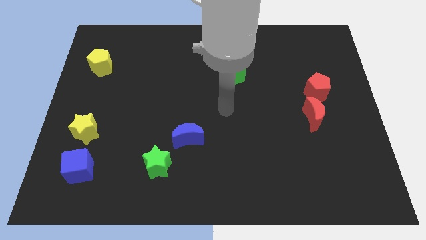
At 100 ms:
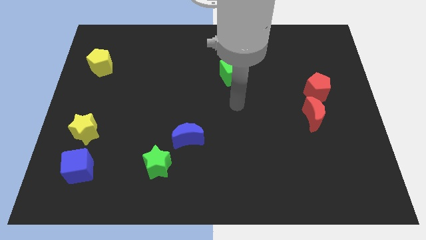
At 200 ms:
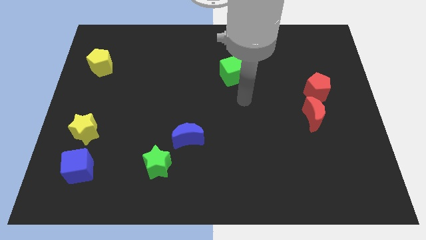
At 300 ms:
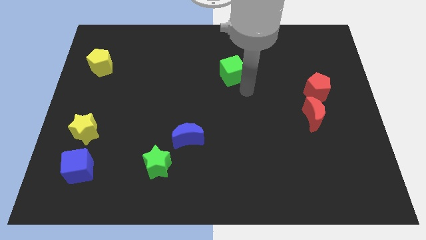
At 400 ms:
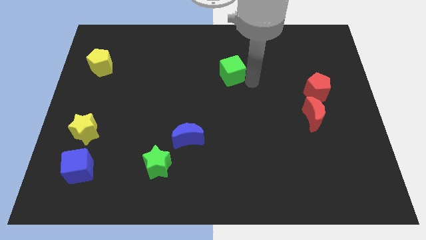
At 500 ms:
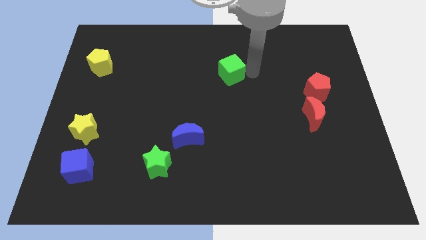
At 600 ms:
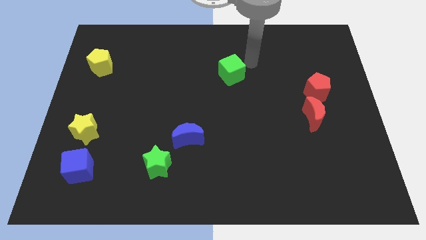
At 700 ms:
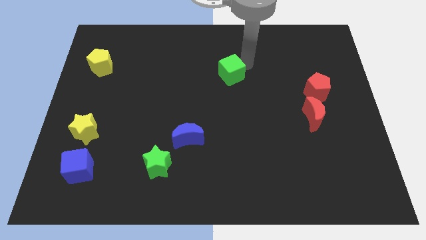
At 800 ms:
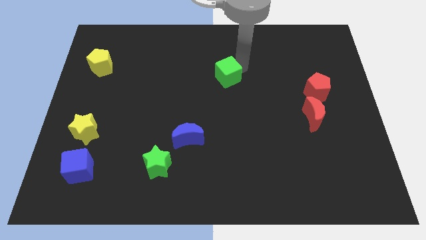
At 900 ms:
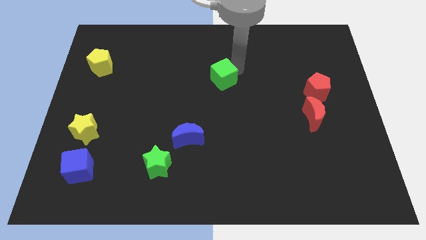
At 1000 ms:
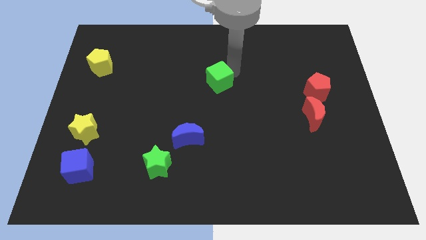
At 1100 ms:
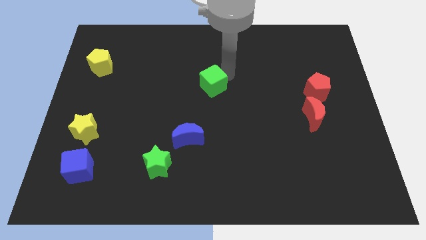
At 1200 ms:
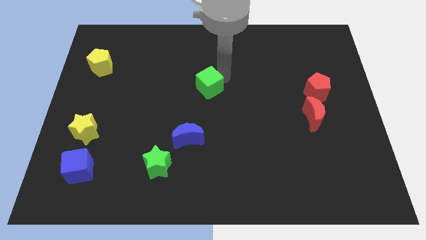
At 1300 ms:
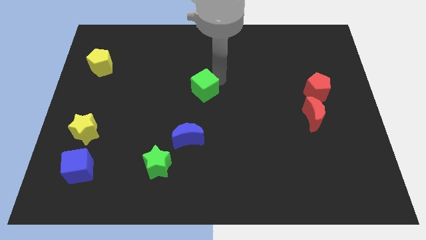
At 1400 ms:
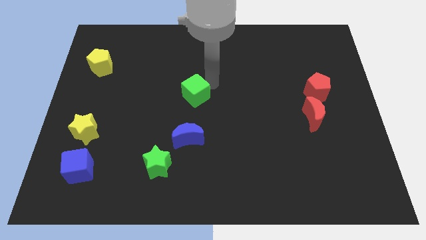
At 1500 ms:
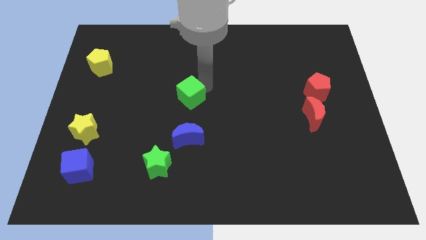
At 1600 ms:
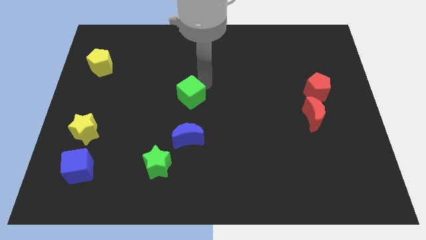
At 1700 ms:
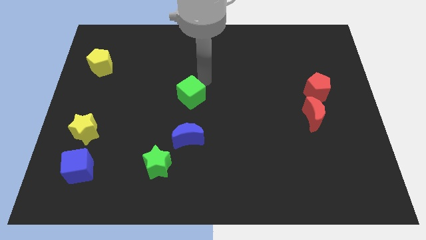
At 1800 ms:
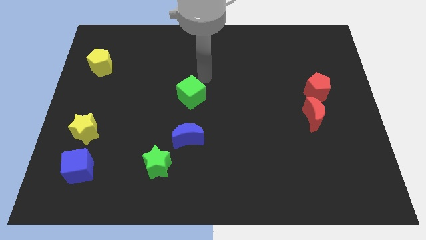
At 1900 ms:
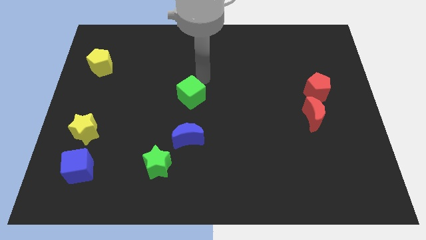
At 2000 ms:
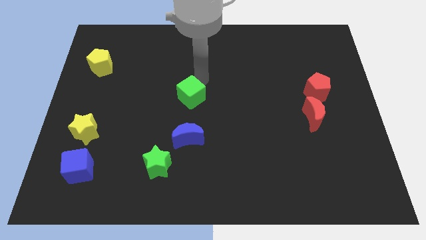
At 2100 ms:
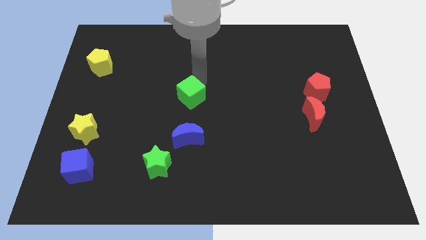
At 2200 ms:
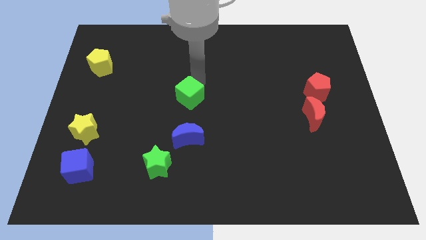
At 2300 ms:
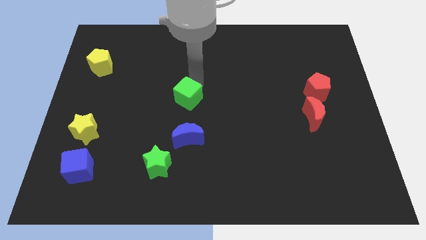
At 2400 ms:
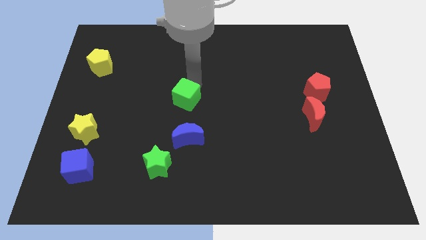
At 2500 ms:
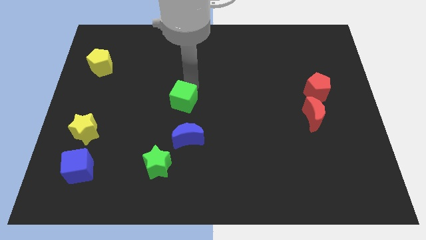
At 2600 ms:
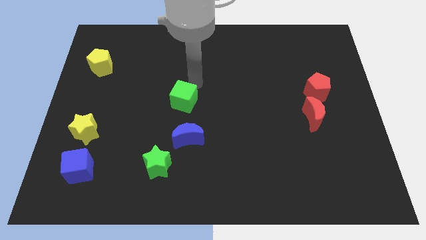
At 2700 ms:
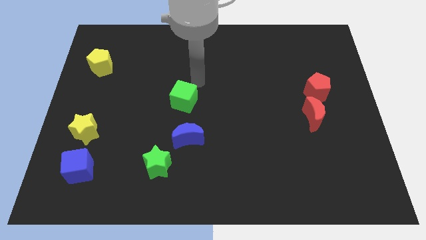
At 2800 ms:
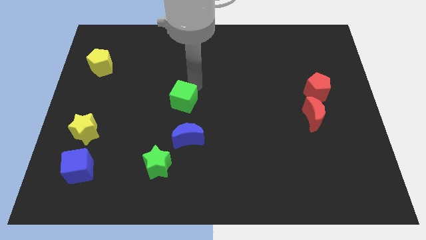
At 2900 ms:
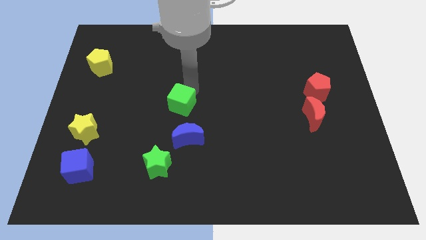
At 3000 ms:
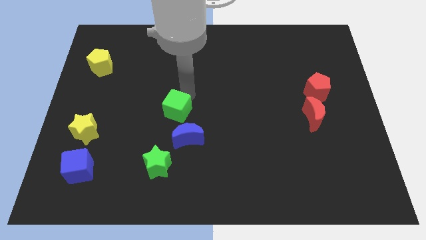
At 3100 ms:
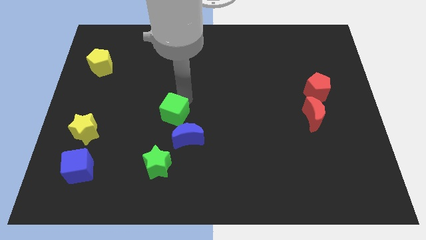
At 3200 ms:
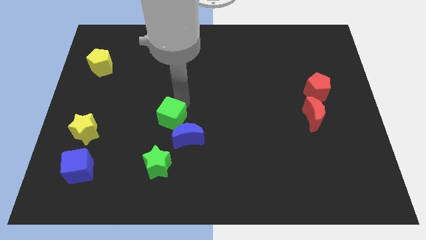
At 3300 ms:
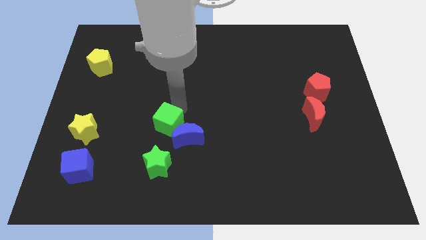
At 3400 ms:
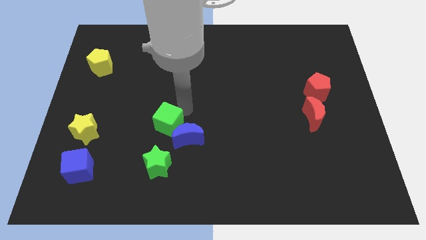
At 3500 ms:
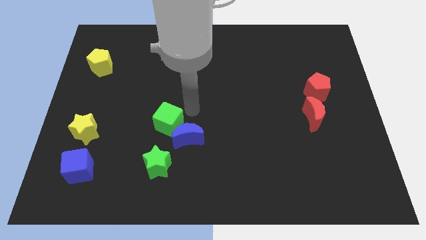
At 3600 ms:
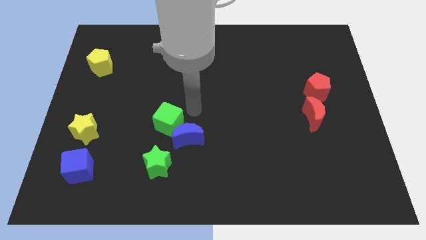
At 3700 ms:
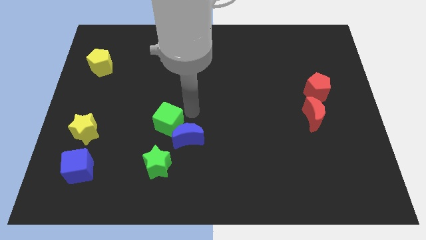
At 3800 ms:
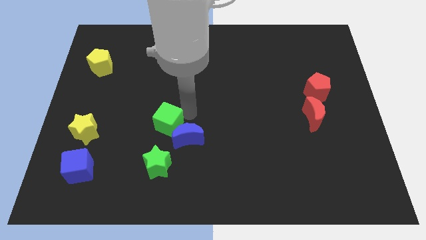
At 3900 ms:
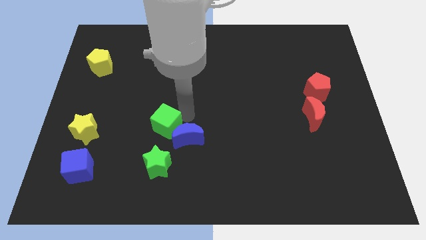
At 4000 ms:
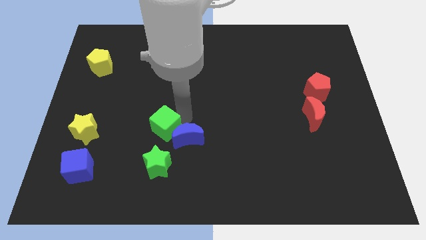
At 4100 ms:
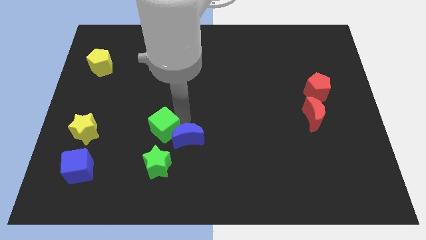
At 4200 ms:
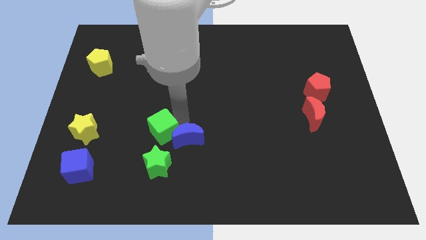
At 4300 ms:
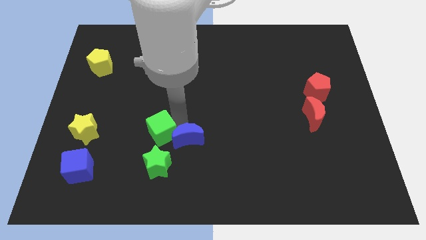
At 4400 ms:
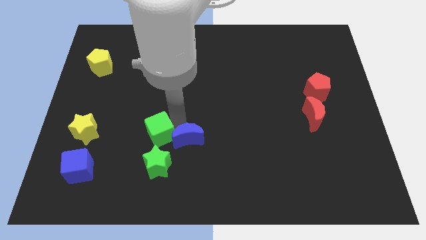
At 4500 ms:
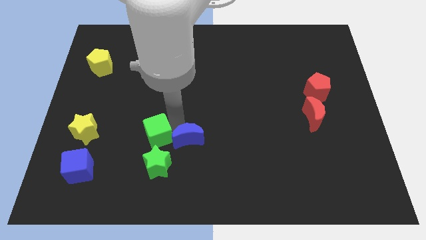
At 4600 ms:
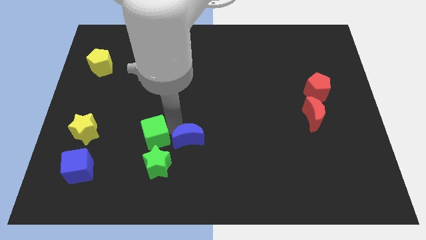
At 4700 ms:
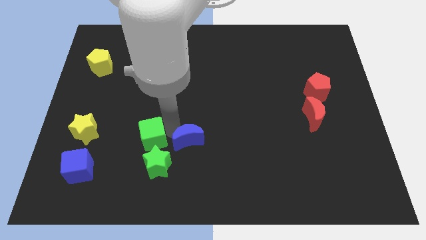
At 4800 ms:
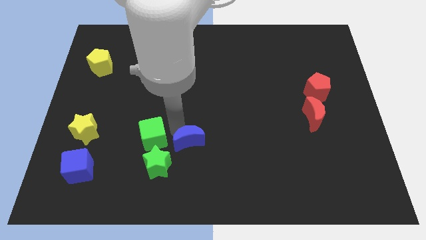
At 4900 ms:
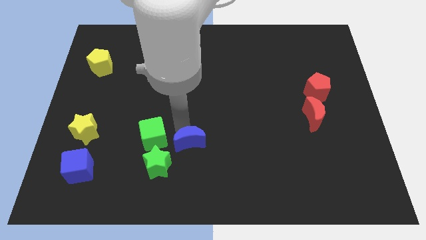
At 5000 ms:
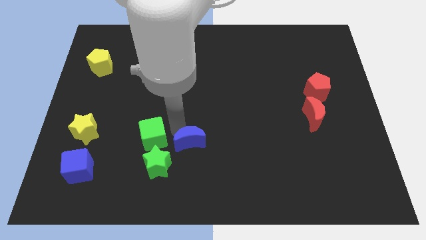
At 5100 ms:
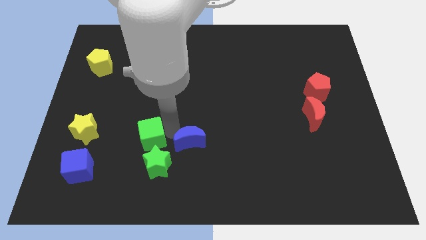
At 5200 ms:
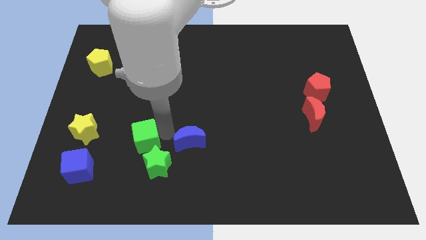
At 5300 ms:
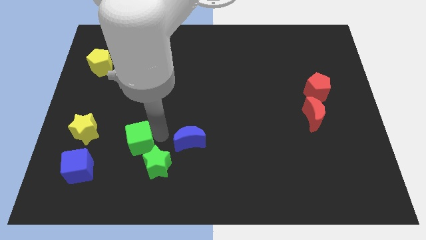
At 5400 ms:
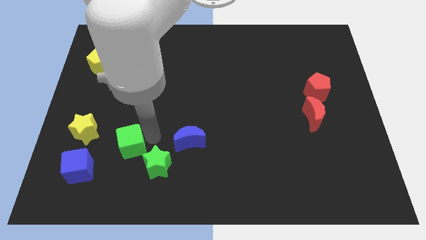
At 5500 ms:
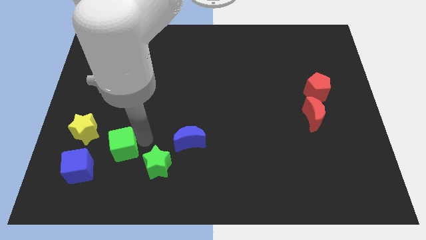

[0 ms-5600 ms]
move the green cube to the bottom right of the yellow star

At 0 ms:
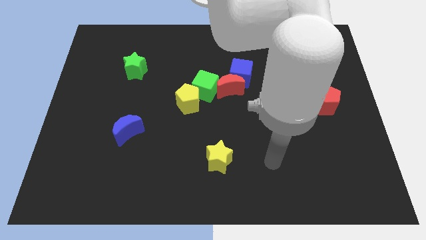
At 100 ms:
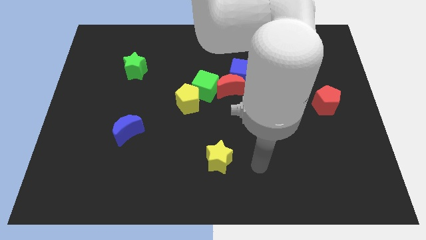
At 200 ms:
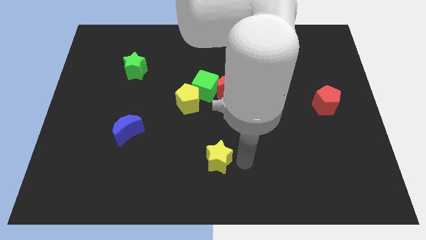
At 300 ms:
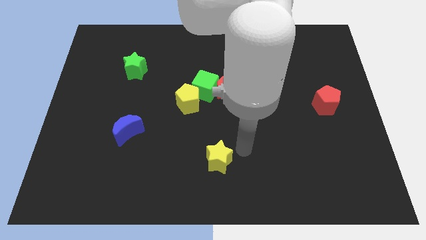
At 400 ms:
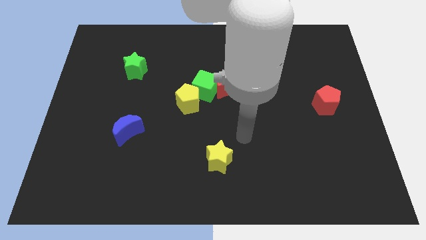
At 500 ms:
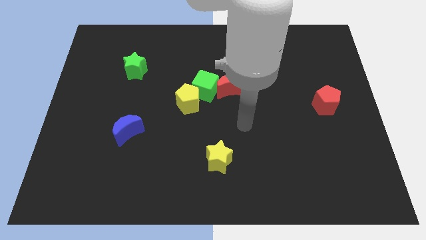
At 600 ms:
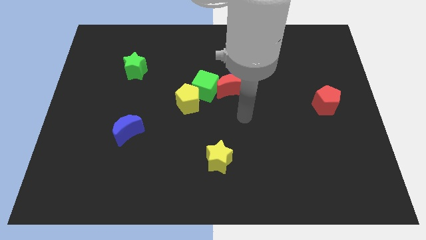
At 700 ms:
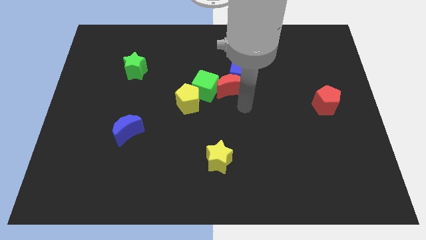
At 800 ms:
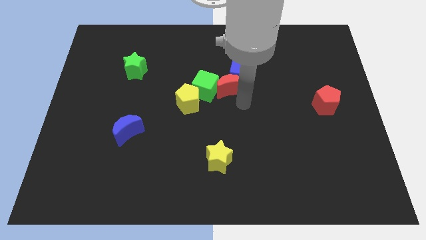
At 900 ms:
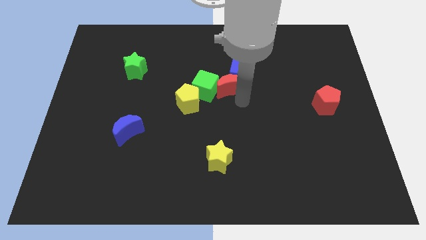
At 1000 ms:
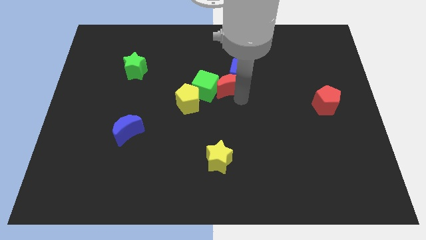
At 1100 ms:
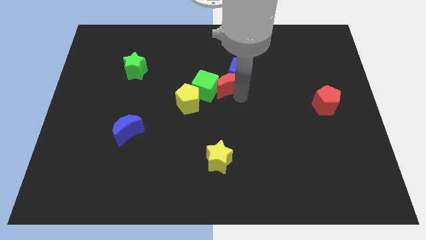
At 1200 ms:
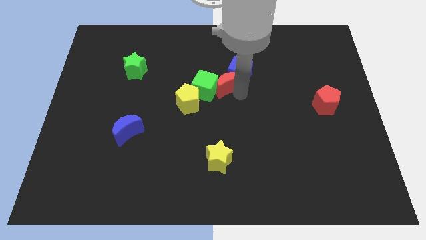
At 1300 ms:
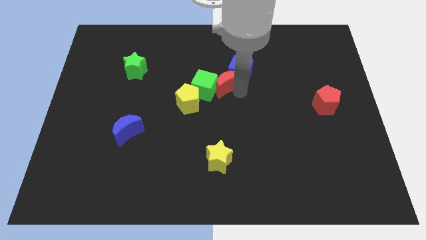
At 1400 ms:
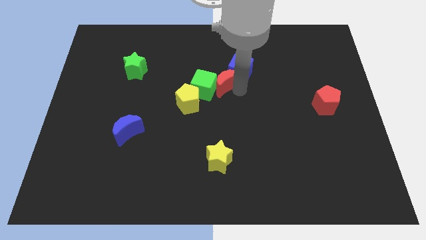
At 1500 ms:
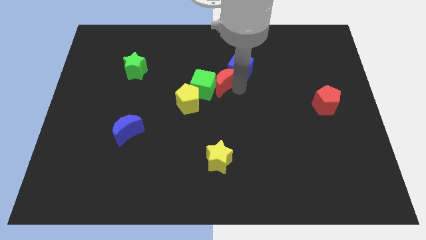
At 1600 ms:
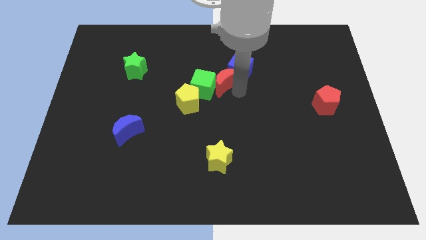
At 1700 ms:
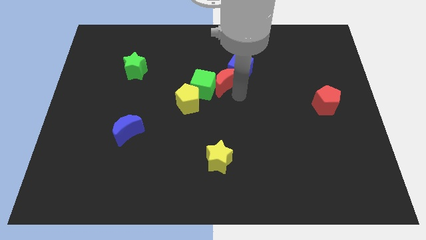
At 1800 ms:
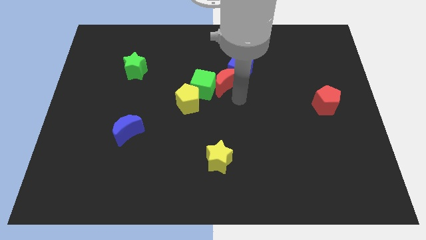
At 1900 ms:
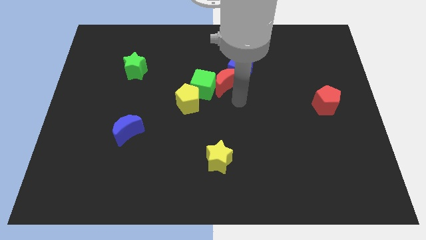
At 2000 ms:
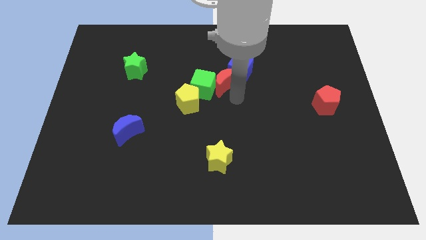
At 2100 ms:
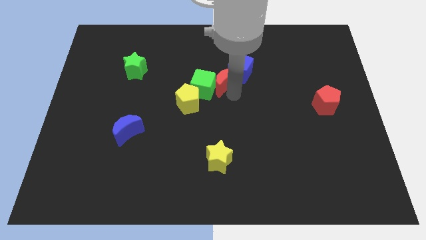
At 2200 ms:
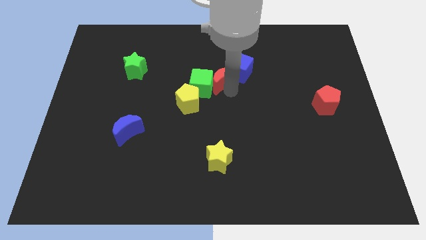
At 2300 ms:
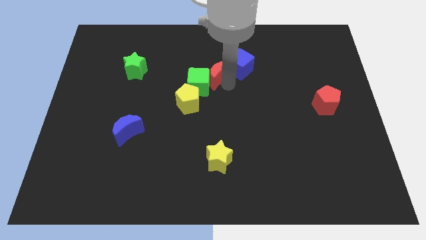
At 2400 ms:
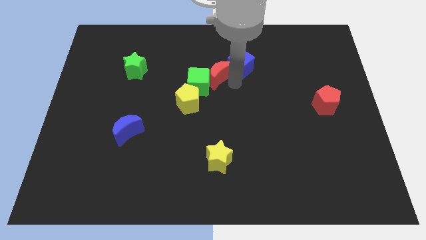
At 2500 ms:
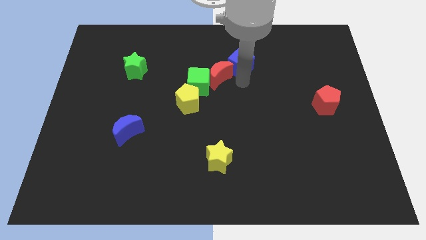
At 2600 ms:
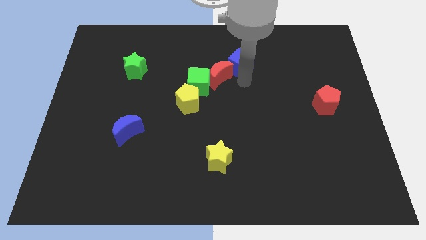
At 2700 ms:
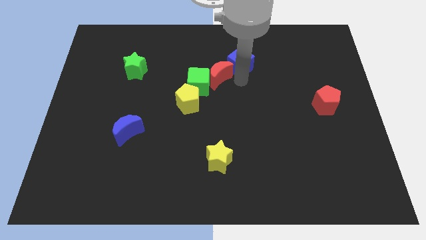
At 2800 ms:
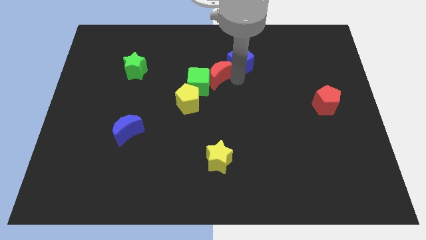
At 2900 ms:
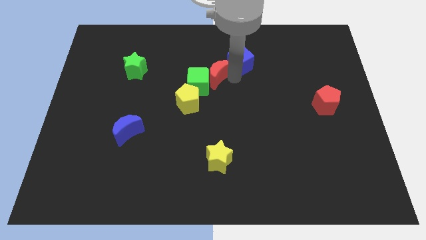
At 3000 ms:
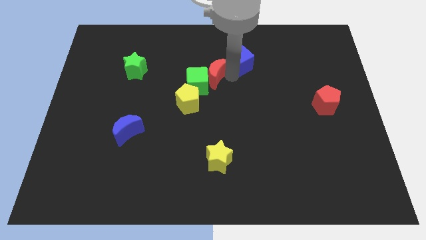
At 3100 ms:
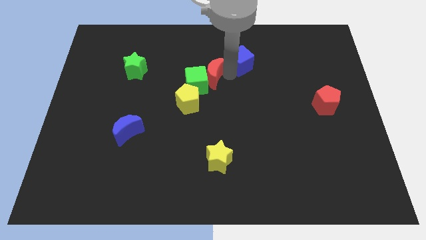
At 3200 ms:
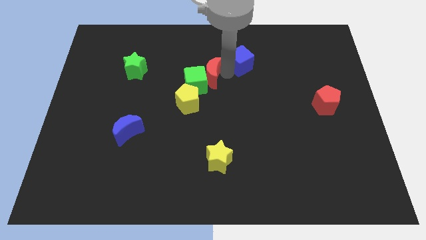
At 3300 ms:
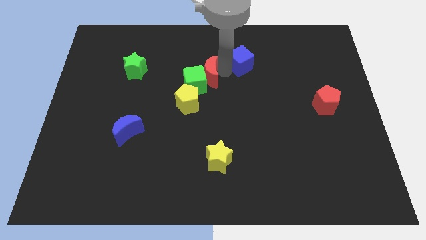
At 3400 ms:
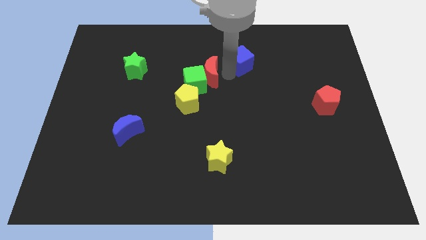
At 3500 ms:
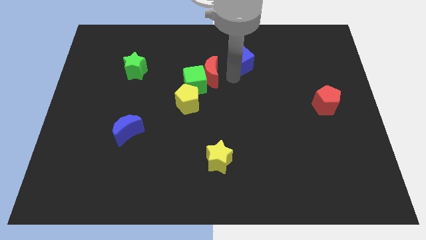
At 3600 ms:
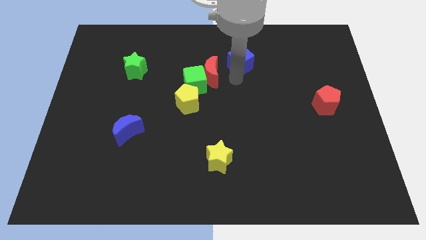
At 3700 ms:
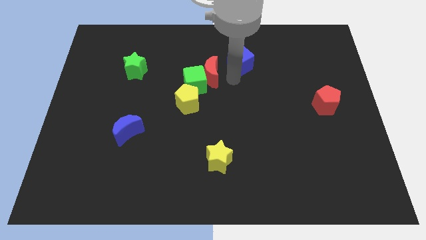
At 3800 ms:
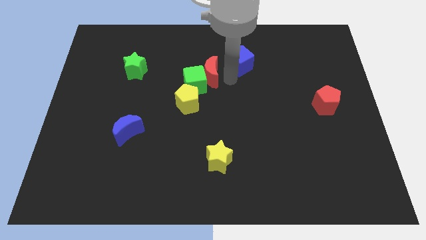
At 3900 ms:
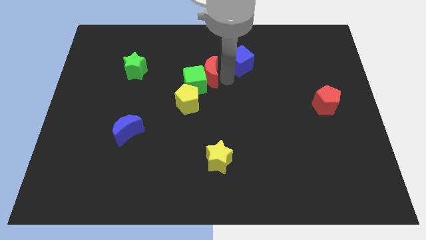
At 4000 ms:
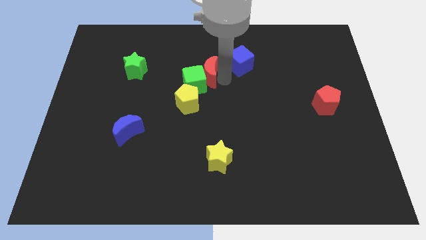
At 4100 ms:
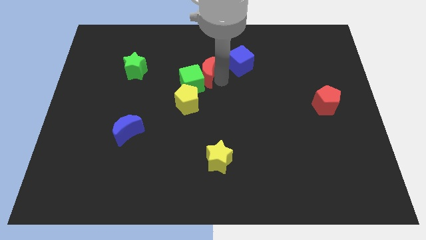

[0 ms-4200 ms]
move the red moon above the yellow pentagon
